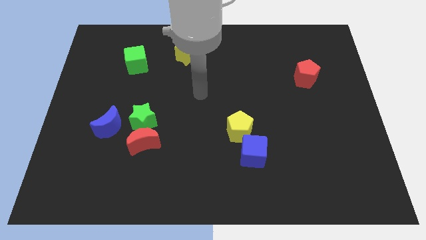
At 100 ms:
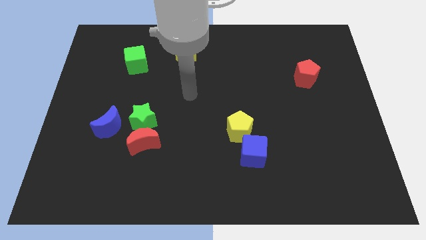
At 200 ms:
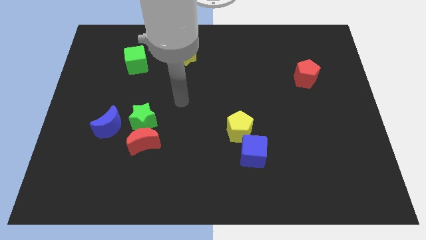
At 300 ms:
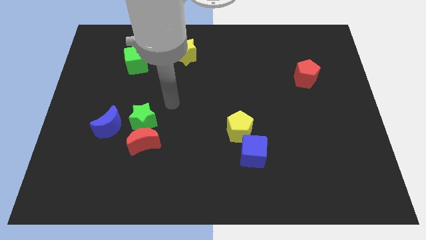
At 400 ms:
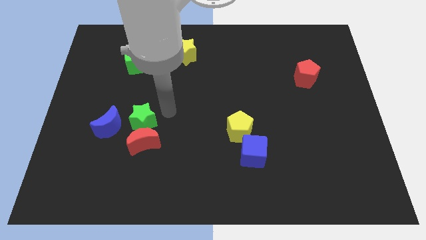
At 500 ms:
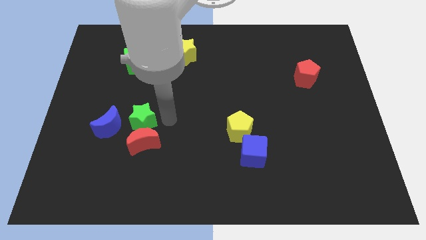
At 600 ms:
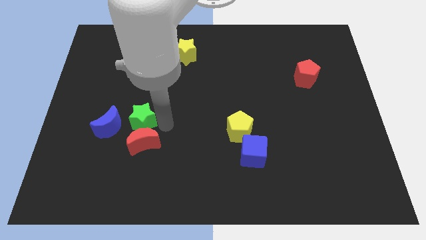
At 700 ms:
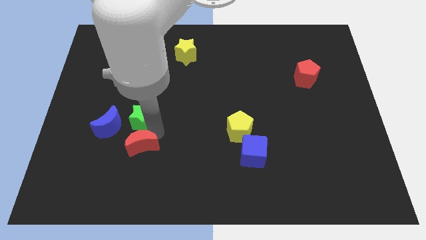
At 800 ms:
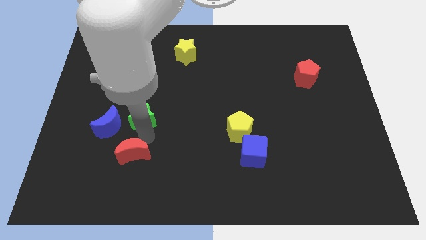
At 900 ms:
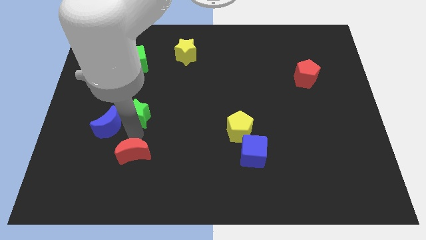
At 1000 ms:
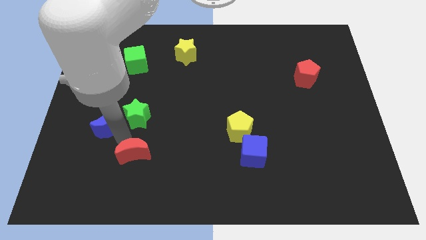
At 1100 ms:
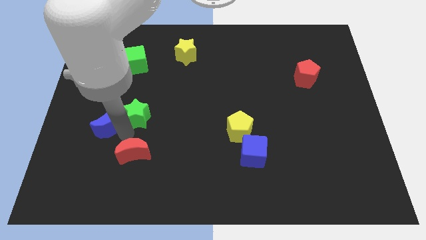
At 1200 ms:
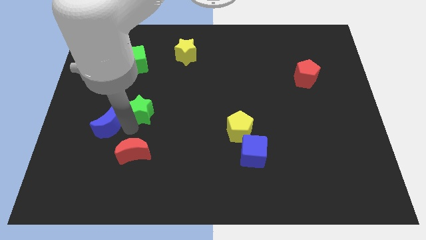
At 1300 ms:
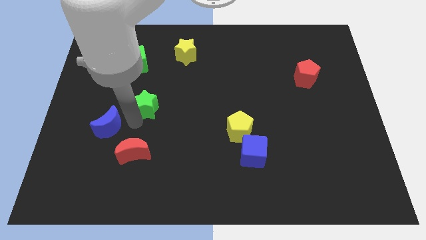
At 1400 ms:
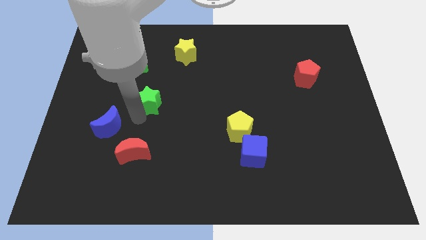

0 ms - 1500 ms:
separate the green star from the red moon and blue moon

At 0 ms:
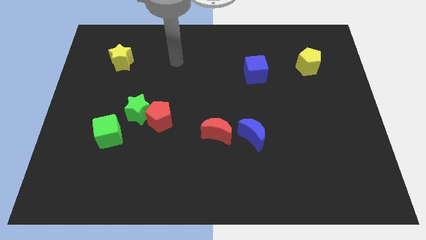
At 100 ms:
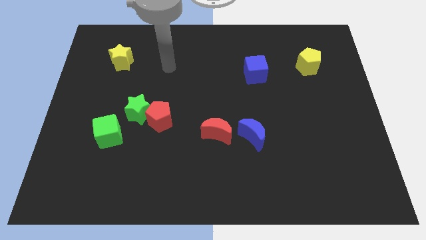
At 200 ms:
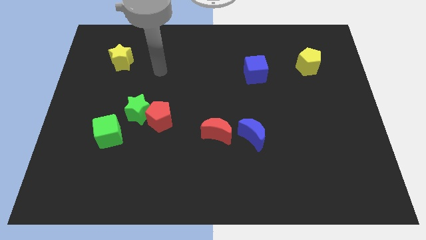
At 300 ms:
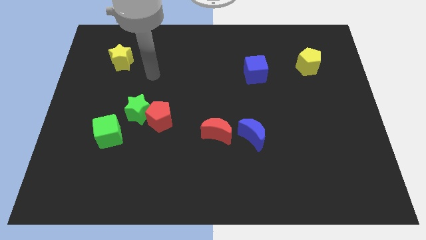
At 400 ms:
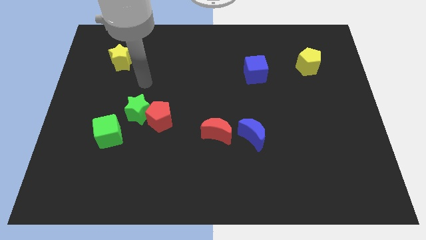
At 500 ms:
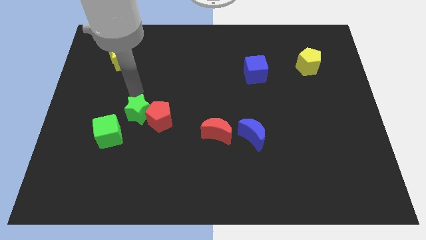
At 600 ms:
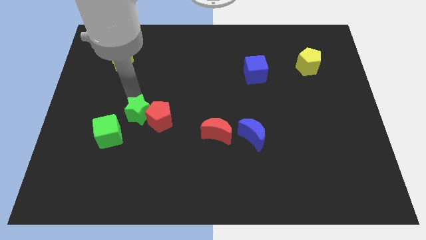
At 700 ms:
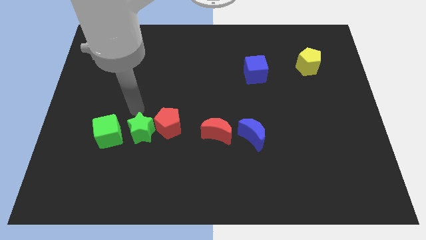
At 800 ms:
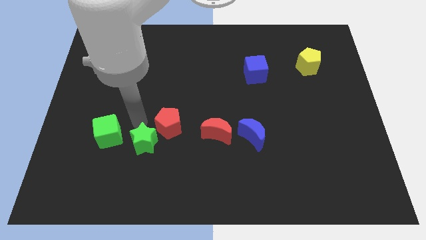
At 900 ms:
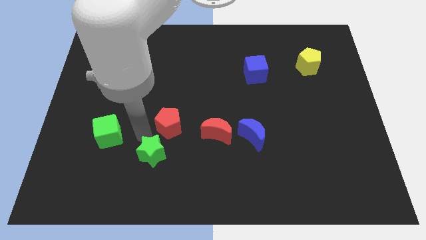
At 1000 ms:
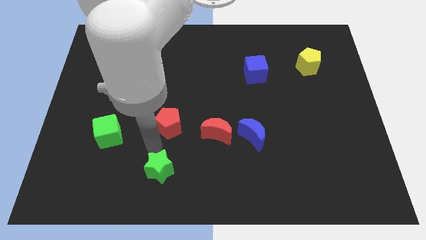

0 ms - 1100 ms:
separate the red pentagon from the green star

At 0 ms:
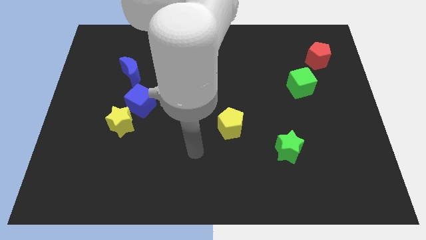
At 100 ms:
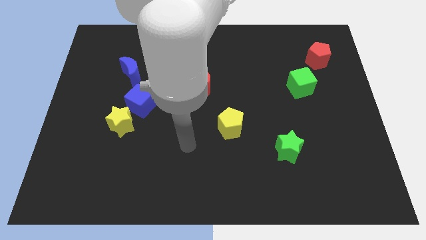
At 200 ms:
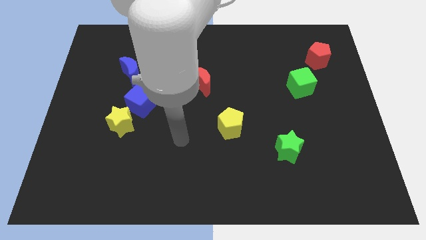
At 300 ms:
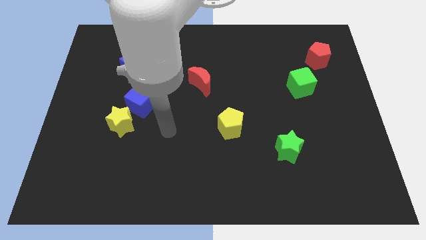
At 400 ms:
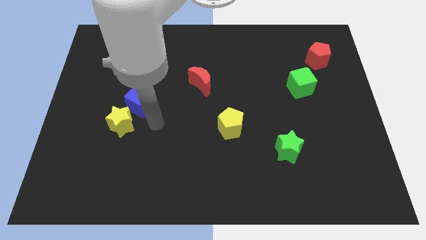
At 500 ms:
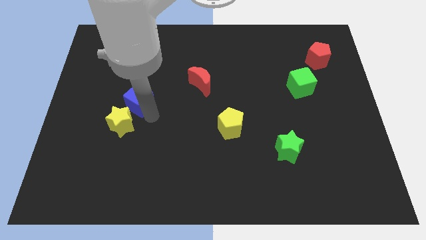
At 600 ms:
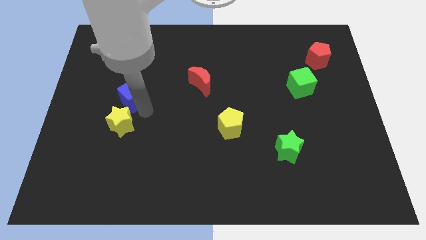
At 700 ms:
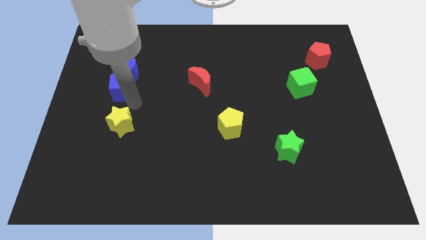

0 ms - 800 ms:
move the yellow star away from the blue cube

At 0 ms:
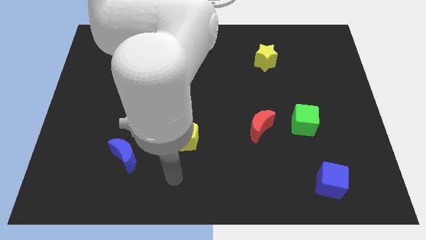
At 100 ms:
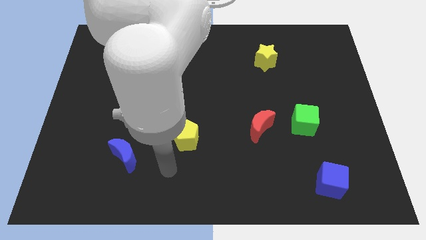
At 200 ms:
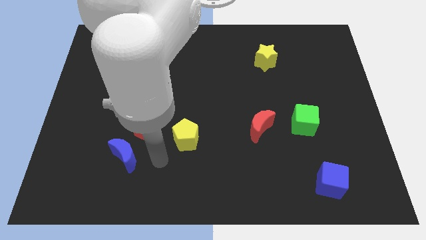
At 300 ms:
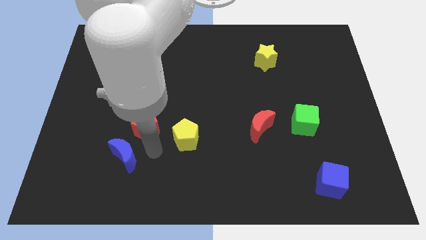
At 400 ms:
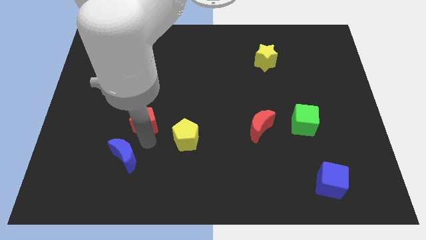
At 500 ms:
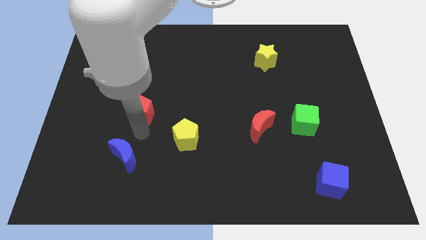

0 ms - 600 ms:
move the blue moon away from the red pentagon

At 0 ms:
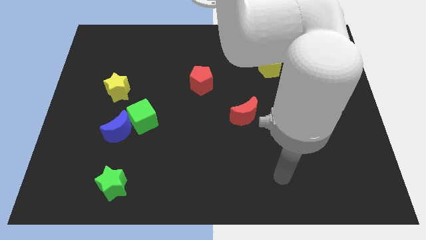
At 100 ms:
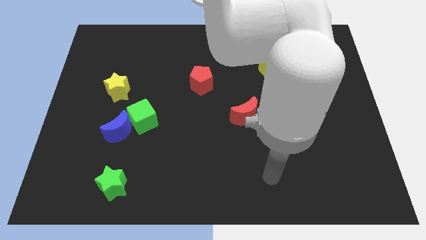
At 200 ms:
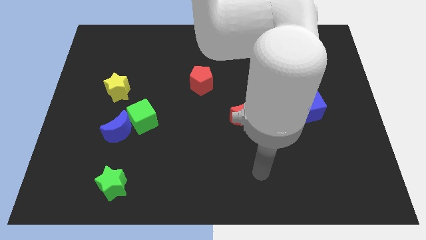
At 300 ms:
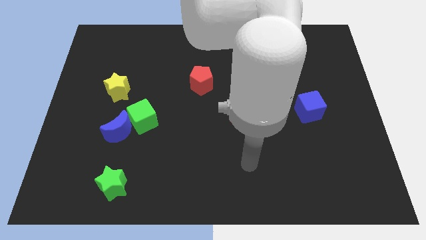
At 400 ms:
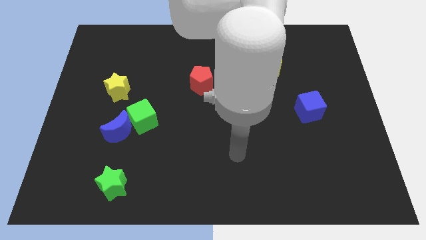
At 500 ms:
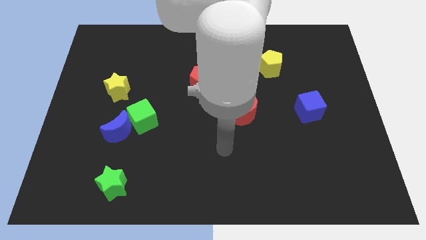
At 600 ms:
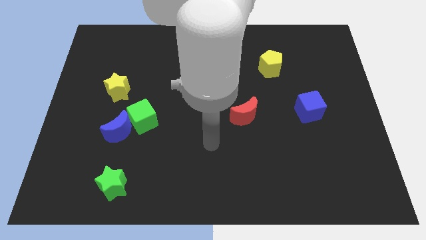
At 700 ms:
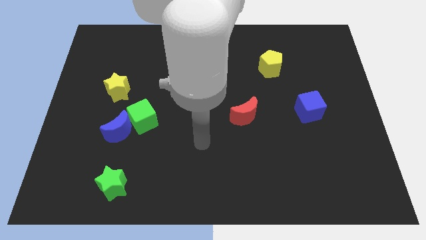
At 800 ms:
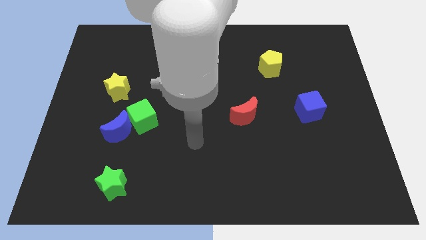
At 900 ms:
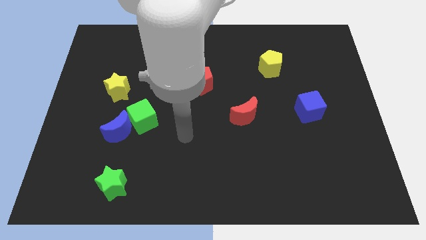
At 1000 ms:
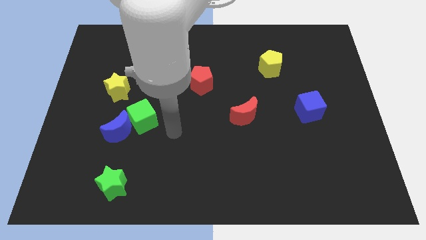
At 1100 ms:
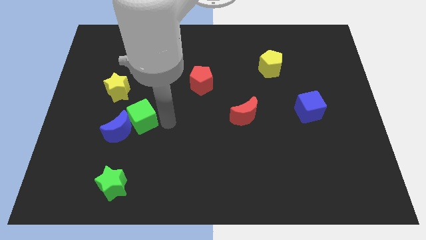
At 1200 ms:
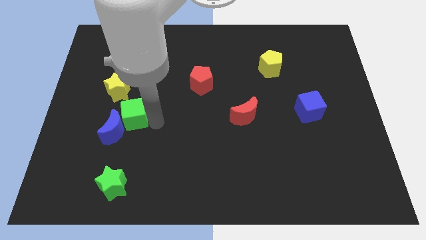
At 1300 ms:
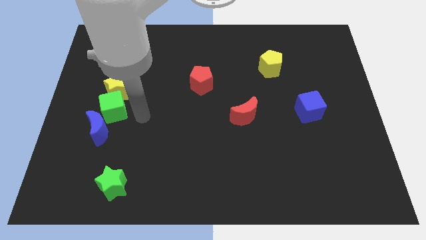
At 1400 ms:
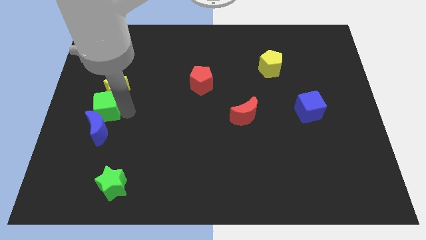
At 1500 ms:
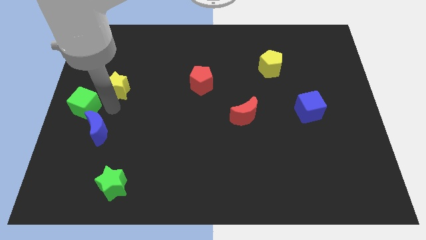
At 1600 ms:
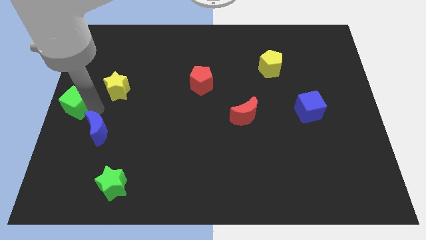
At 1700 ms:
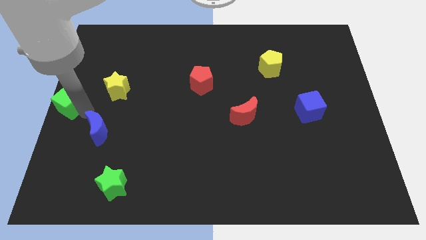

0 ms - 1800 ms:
separate the blue moon from the green cube

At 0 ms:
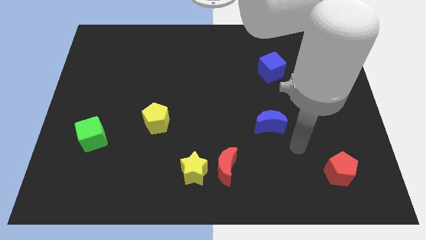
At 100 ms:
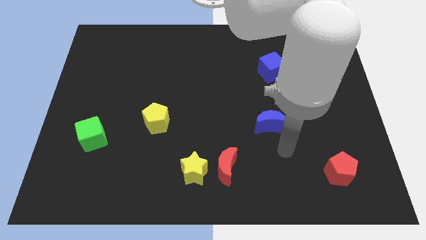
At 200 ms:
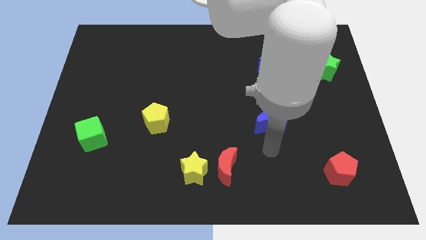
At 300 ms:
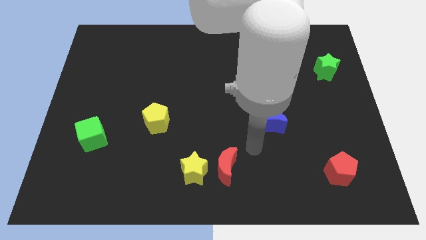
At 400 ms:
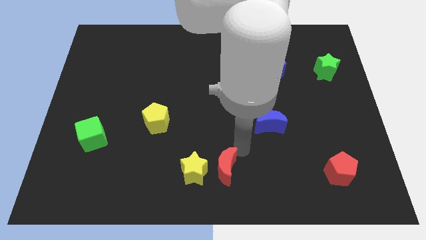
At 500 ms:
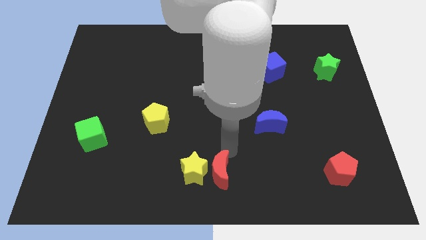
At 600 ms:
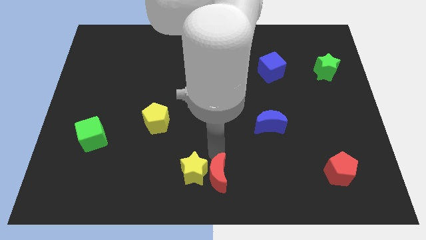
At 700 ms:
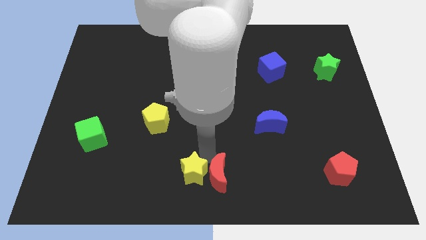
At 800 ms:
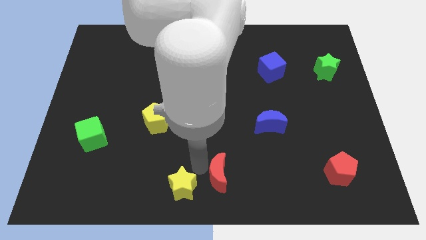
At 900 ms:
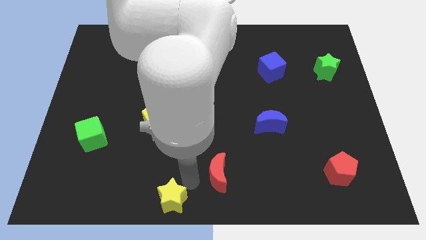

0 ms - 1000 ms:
separate the red moon from the yellow star

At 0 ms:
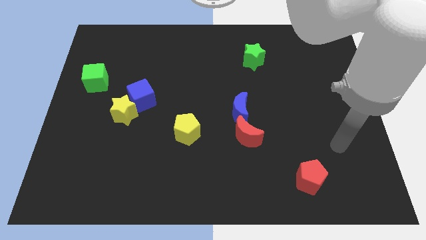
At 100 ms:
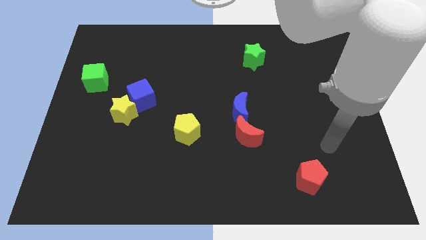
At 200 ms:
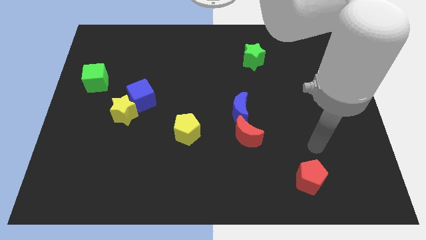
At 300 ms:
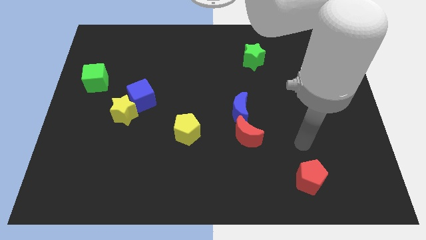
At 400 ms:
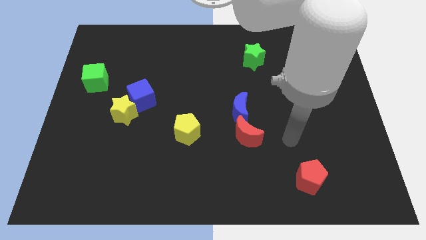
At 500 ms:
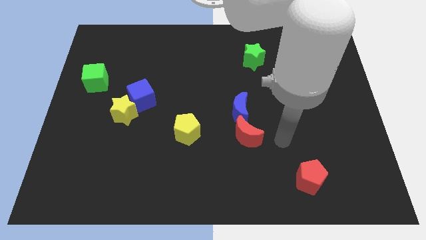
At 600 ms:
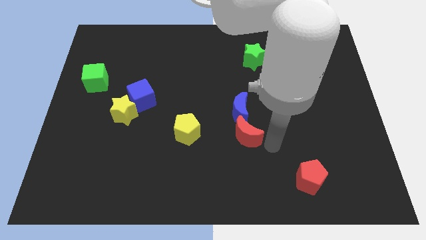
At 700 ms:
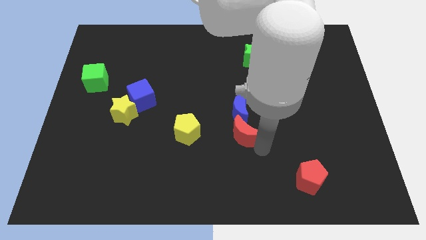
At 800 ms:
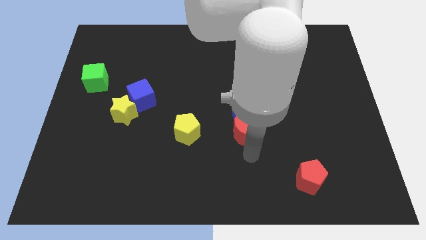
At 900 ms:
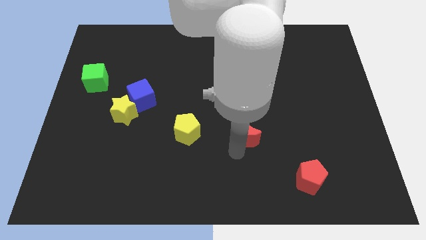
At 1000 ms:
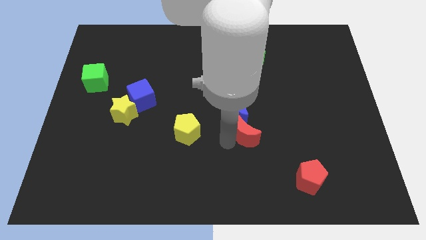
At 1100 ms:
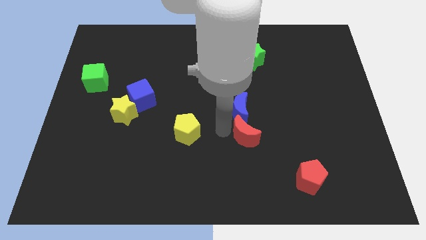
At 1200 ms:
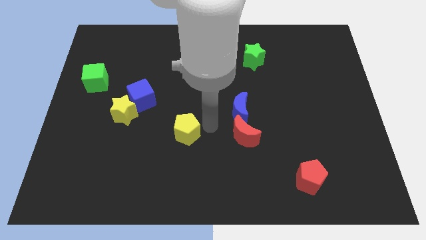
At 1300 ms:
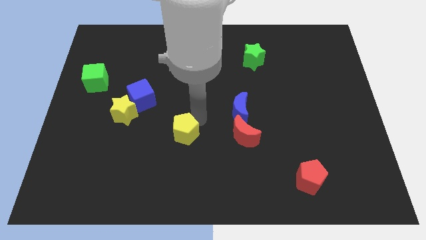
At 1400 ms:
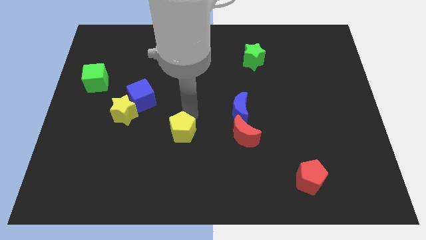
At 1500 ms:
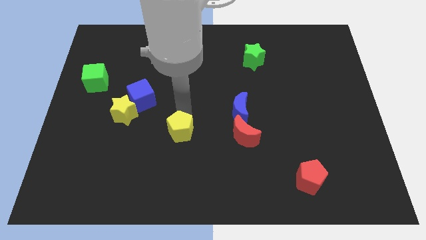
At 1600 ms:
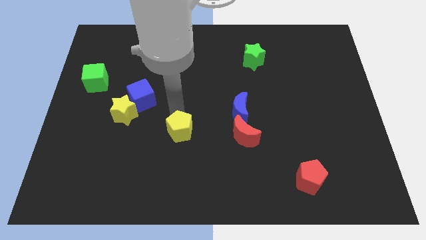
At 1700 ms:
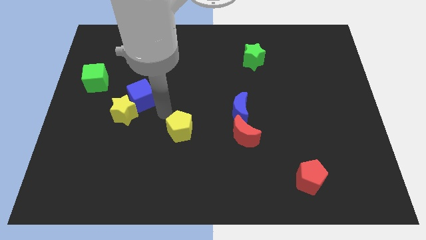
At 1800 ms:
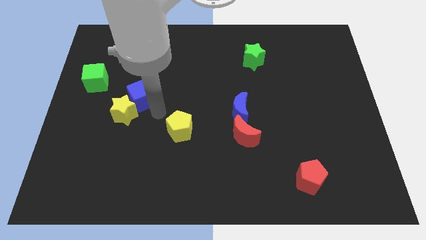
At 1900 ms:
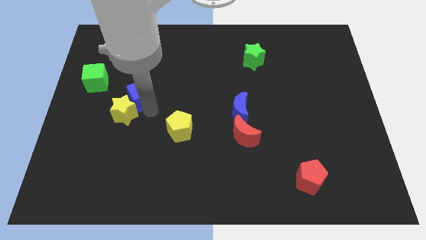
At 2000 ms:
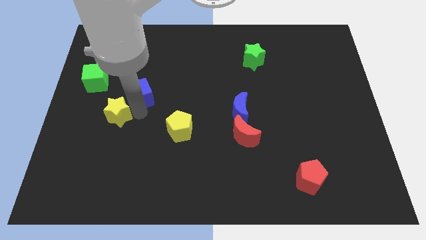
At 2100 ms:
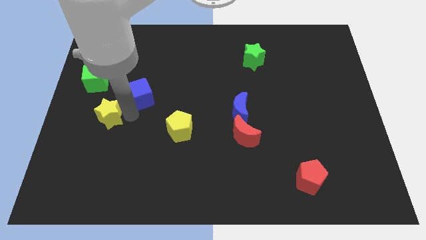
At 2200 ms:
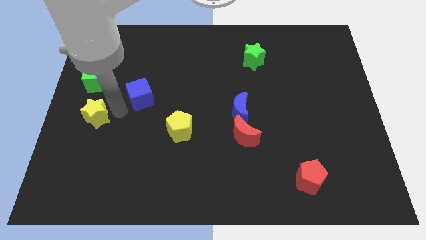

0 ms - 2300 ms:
pull the blue cube apart from the yellow star

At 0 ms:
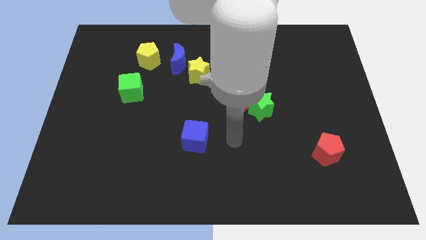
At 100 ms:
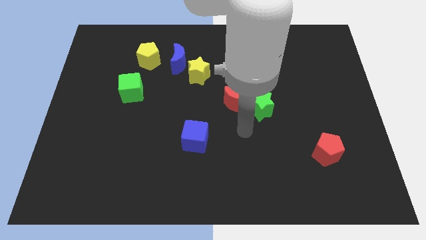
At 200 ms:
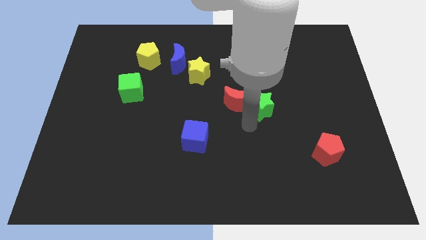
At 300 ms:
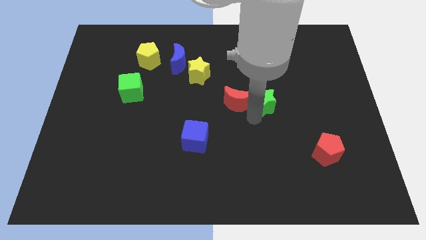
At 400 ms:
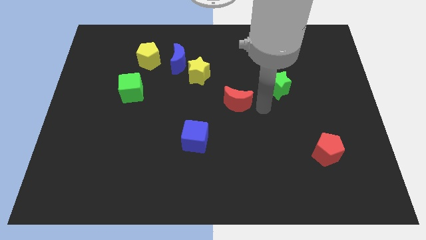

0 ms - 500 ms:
separate the red moon from the green star
